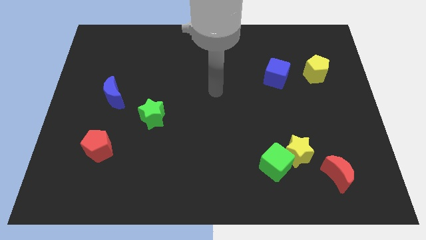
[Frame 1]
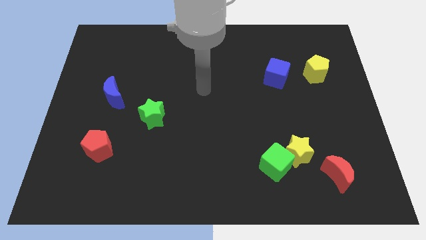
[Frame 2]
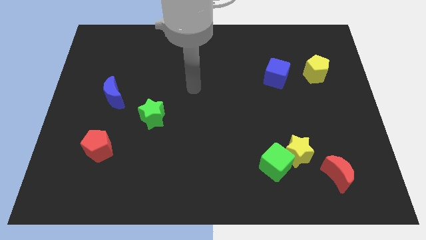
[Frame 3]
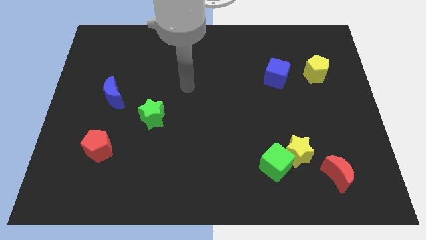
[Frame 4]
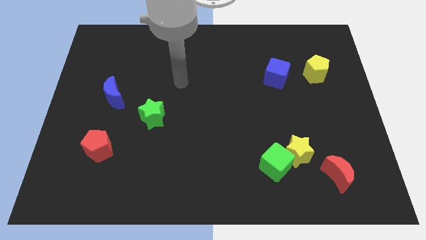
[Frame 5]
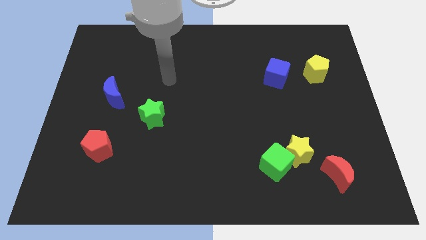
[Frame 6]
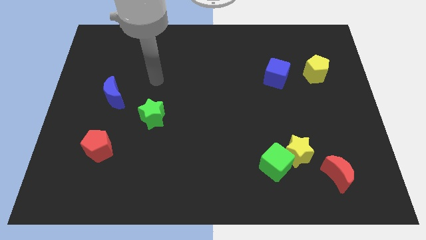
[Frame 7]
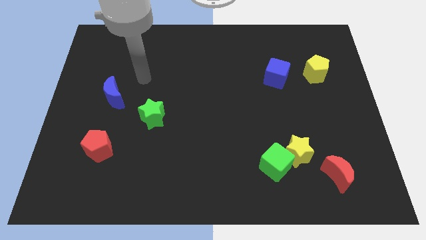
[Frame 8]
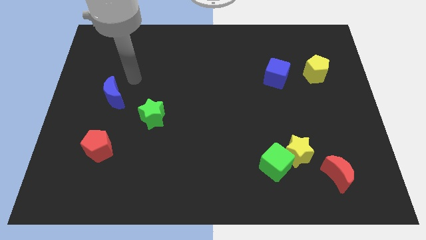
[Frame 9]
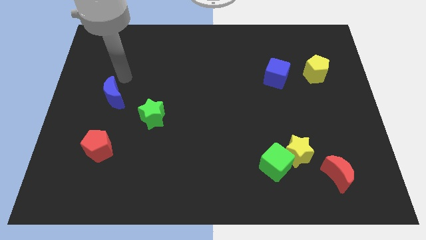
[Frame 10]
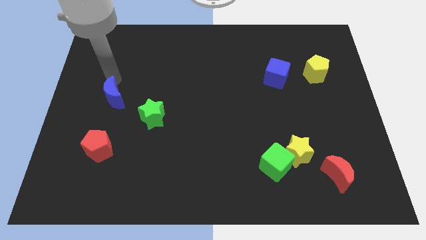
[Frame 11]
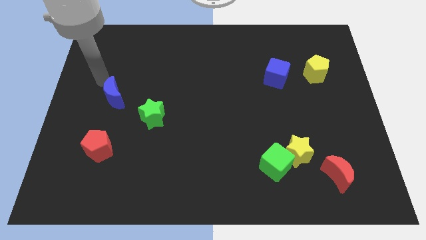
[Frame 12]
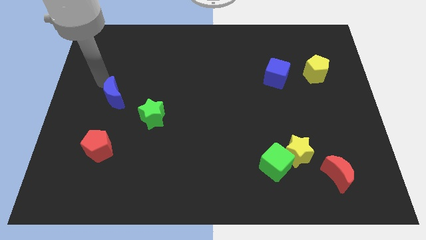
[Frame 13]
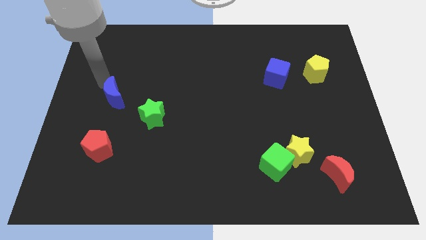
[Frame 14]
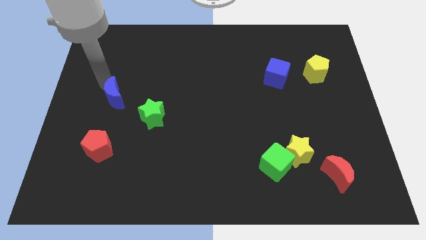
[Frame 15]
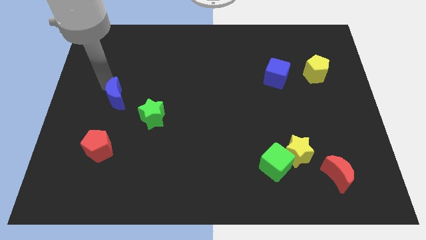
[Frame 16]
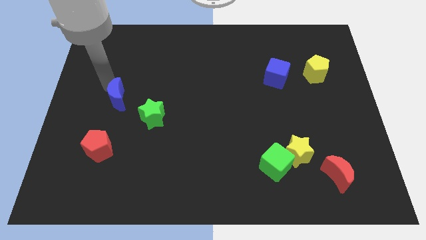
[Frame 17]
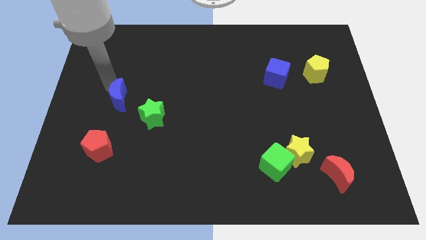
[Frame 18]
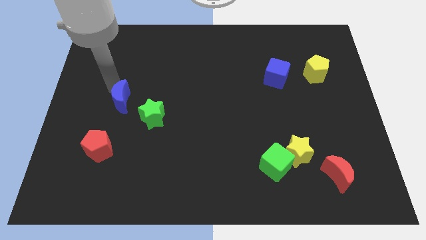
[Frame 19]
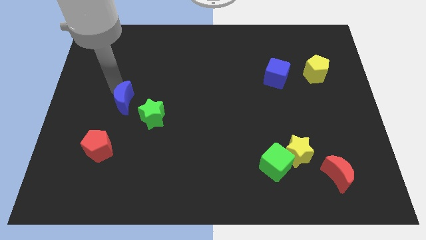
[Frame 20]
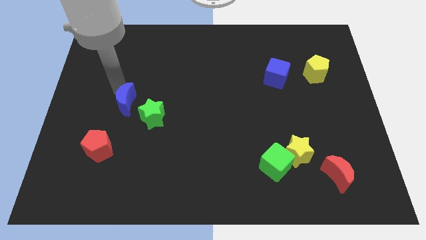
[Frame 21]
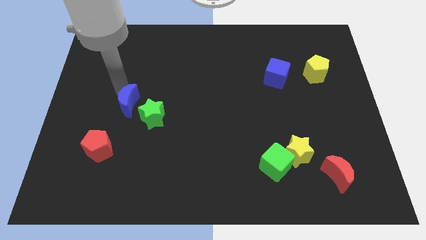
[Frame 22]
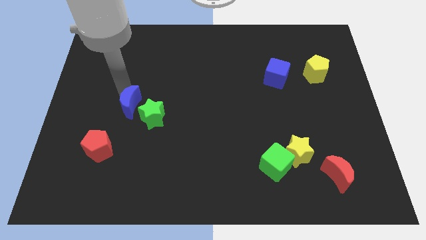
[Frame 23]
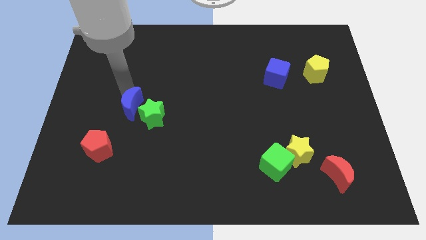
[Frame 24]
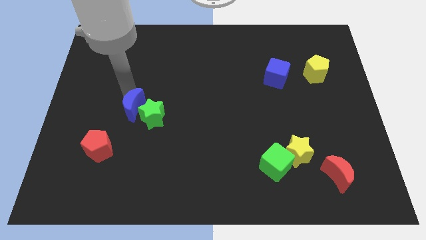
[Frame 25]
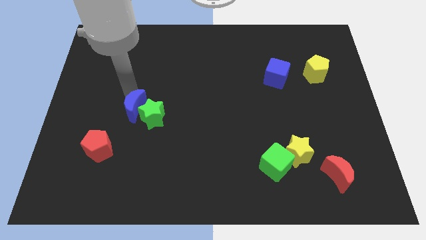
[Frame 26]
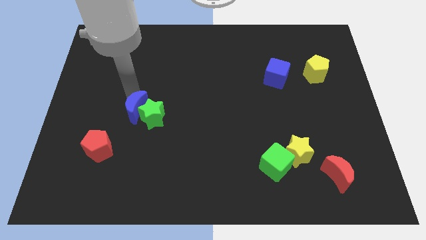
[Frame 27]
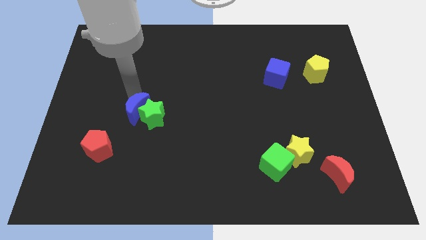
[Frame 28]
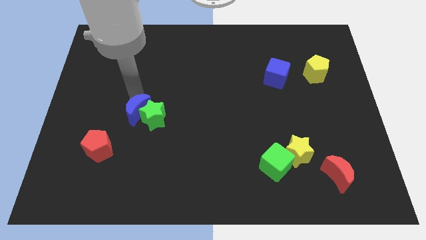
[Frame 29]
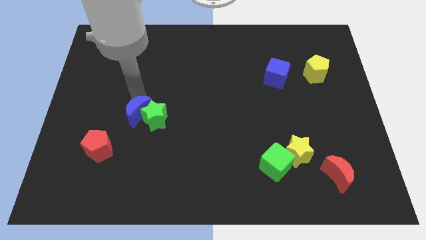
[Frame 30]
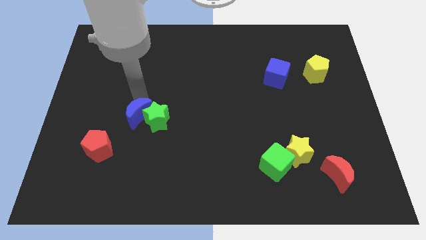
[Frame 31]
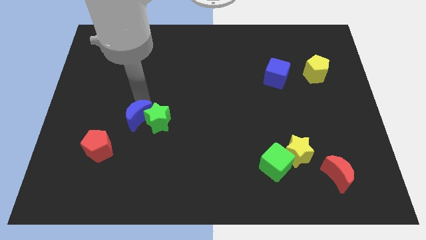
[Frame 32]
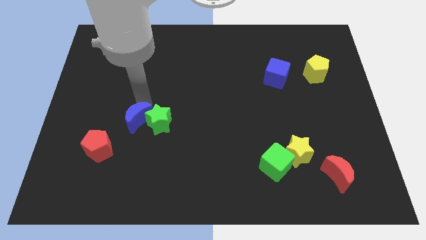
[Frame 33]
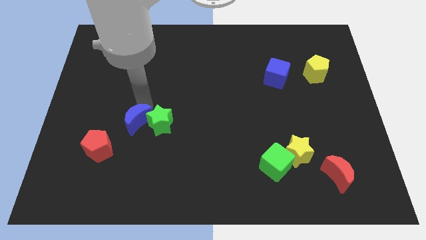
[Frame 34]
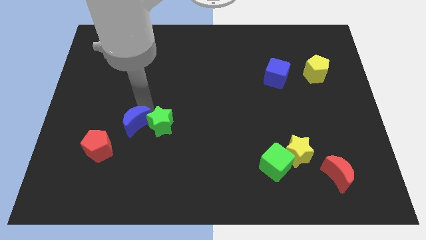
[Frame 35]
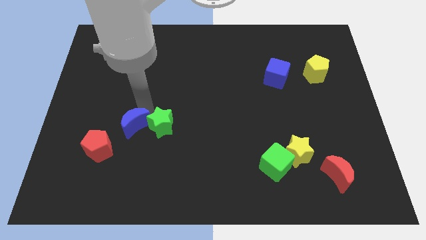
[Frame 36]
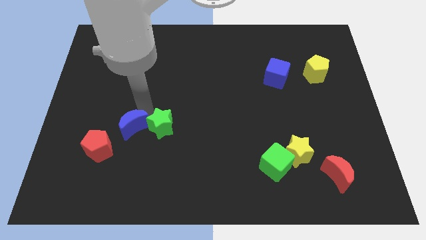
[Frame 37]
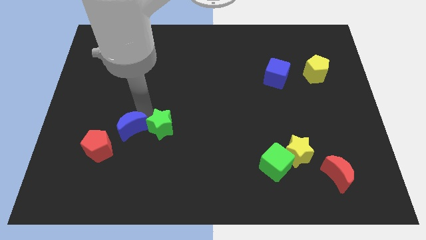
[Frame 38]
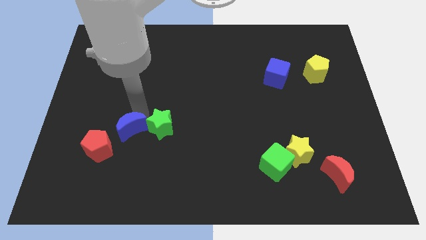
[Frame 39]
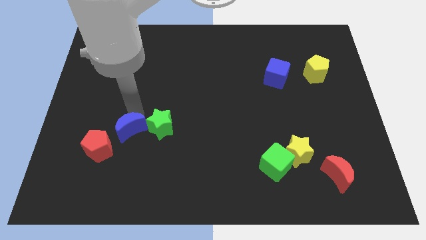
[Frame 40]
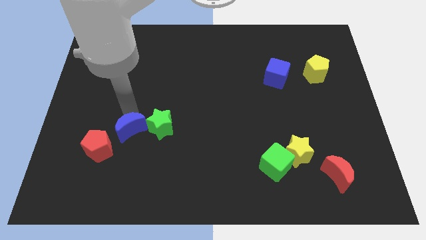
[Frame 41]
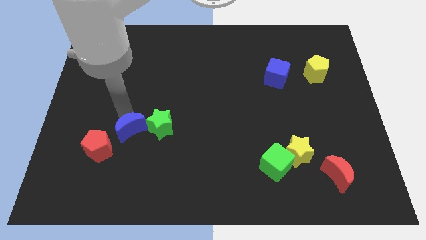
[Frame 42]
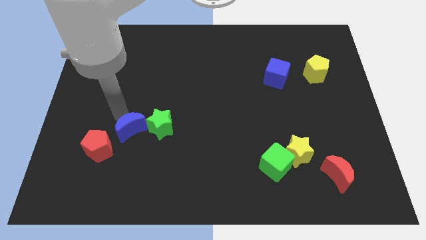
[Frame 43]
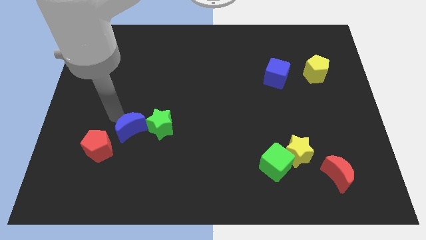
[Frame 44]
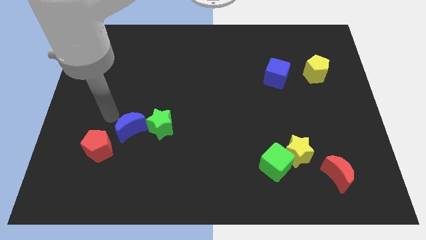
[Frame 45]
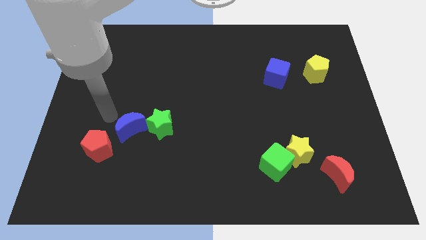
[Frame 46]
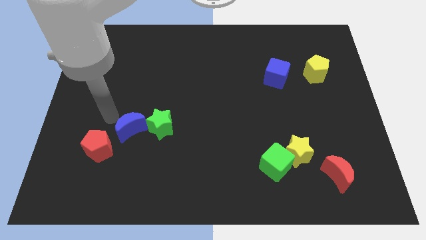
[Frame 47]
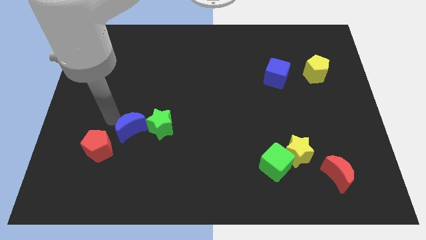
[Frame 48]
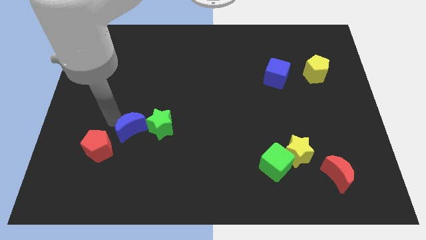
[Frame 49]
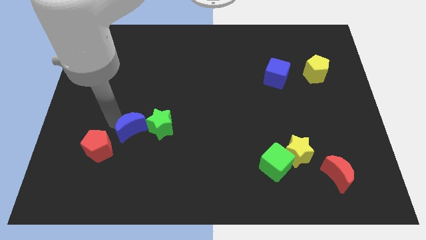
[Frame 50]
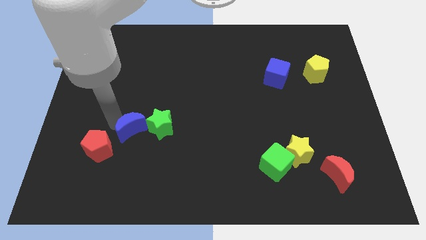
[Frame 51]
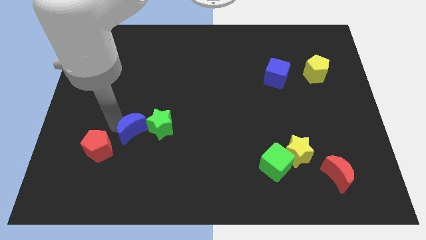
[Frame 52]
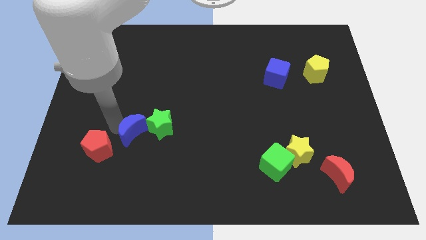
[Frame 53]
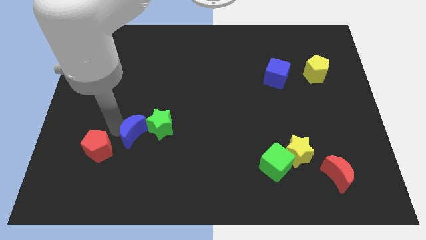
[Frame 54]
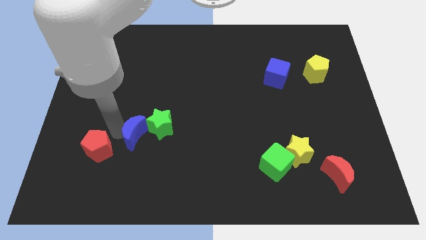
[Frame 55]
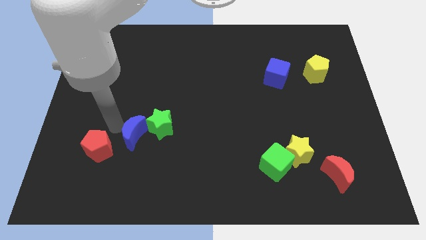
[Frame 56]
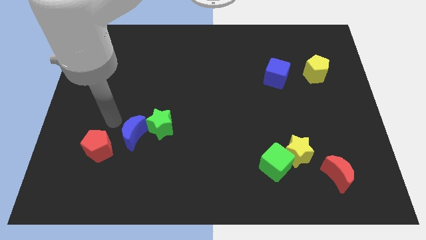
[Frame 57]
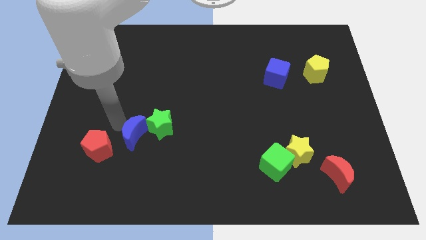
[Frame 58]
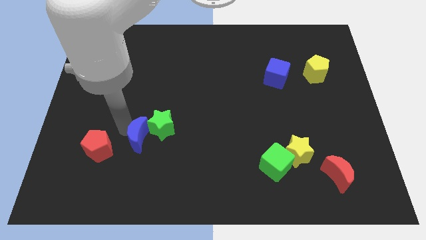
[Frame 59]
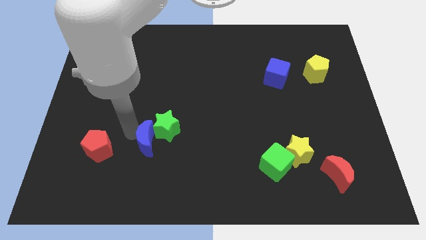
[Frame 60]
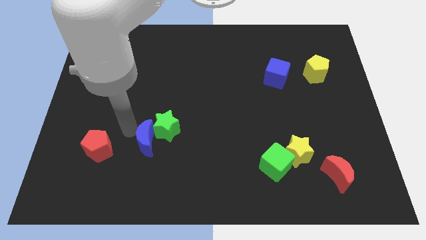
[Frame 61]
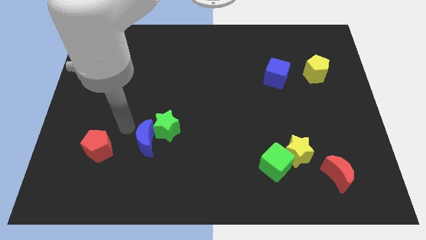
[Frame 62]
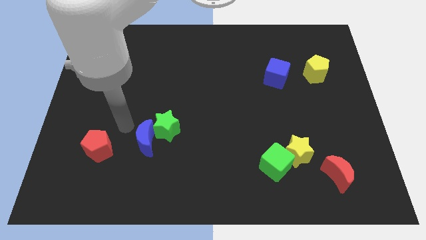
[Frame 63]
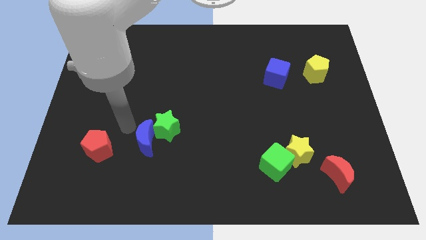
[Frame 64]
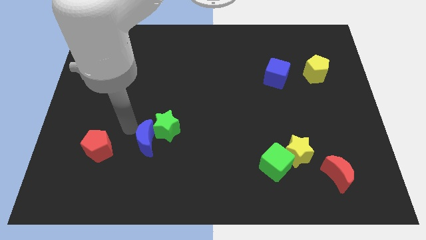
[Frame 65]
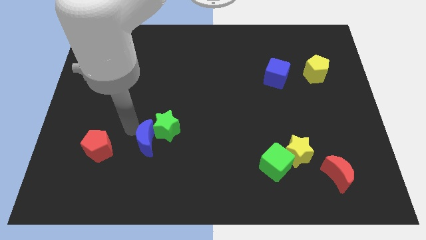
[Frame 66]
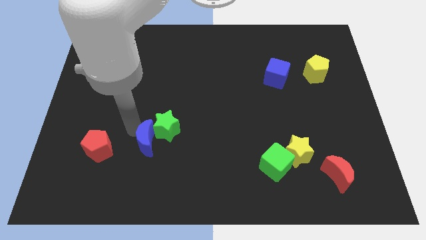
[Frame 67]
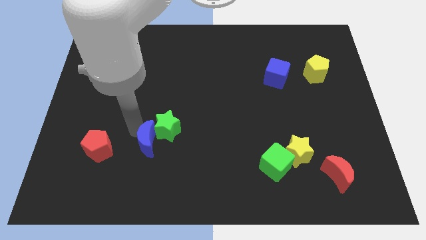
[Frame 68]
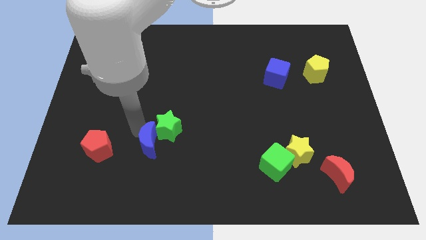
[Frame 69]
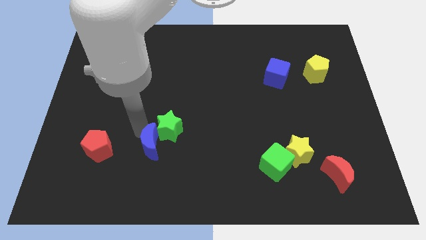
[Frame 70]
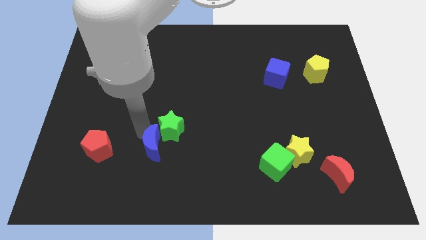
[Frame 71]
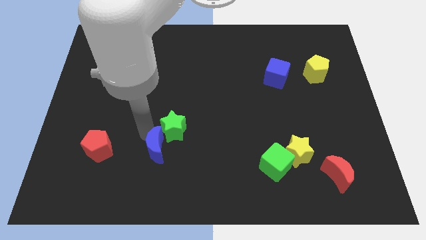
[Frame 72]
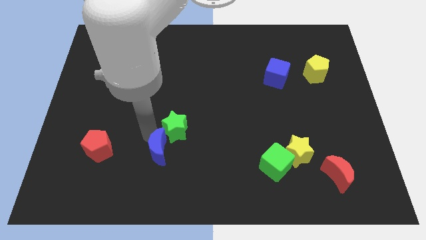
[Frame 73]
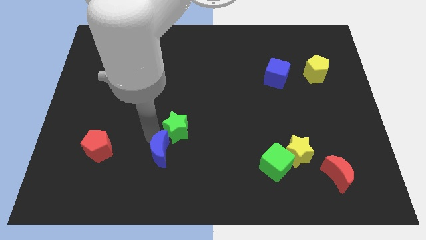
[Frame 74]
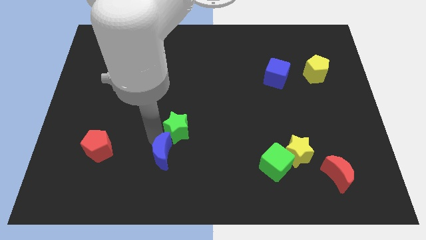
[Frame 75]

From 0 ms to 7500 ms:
move the blue moon downwards and right

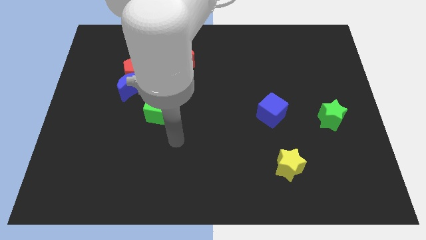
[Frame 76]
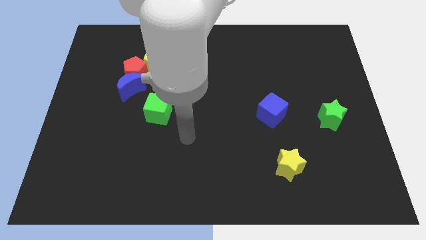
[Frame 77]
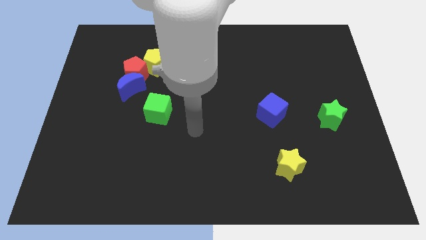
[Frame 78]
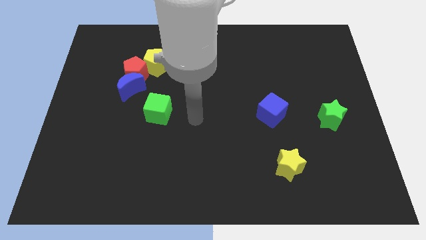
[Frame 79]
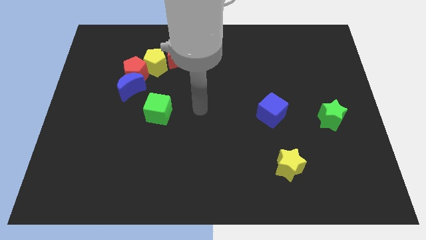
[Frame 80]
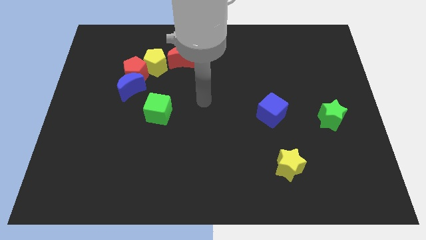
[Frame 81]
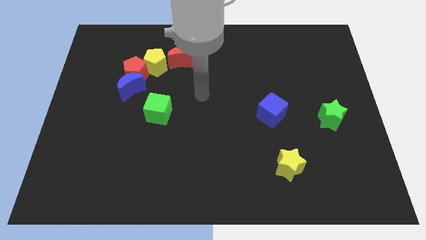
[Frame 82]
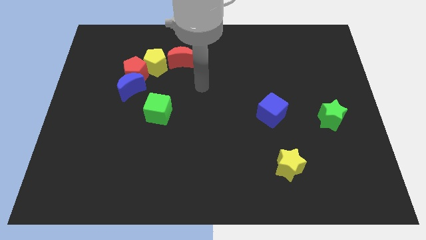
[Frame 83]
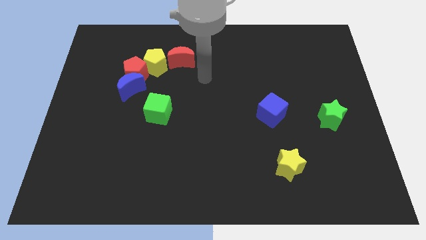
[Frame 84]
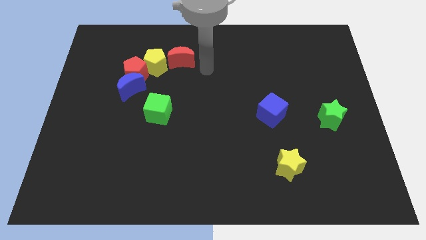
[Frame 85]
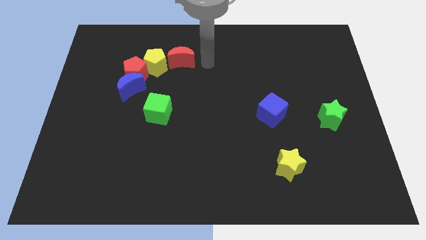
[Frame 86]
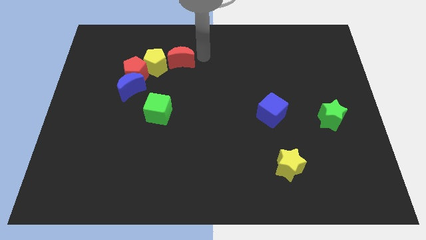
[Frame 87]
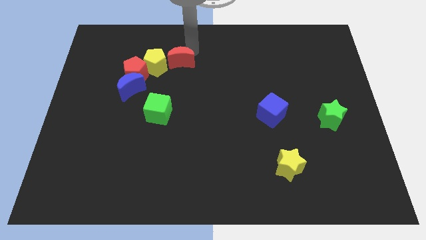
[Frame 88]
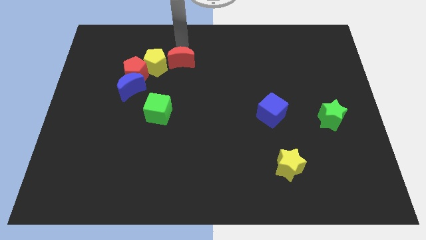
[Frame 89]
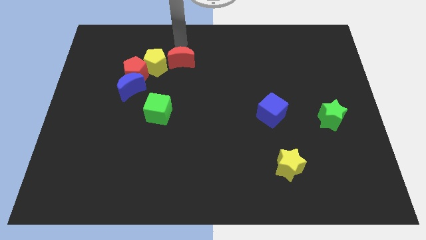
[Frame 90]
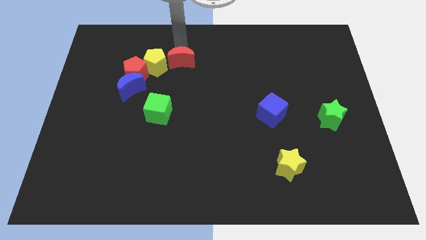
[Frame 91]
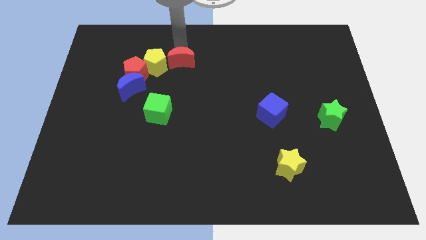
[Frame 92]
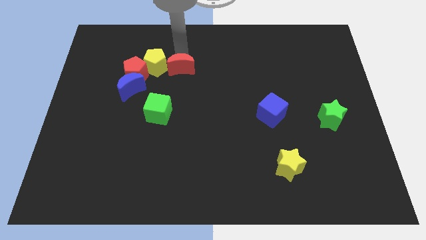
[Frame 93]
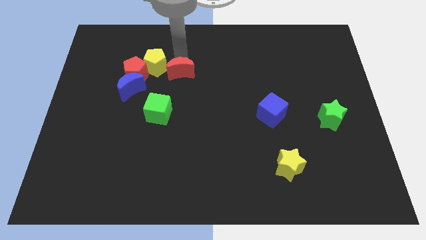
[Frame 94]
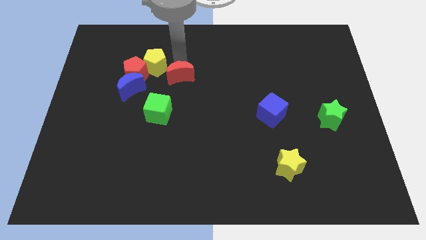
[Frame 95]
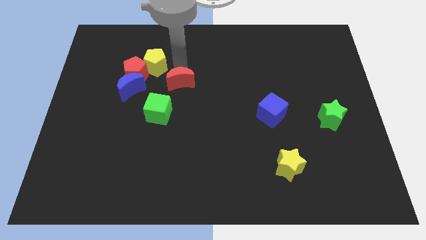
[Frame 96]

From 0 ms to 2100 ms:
push the red moon slightly down
